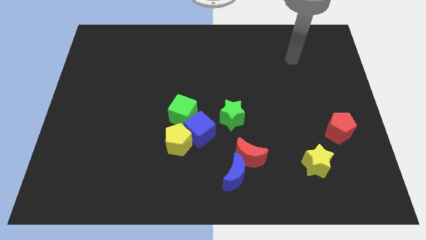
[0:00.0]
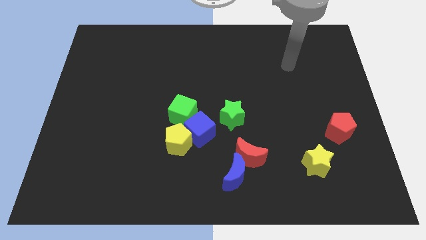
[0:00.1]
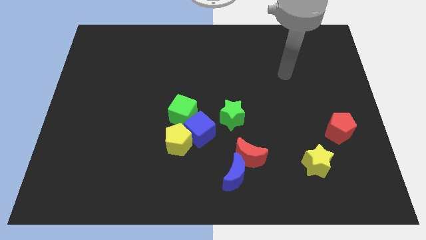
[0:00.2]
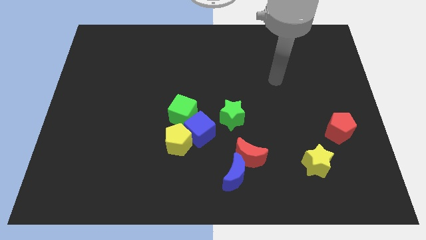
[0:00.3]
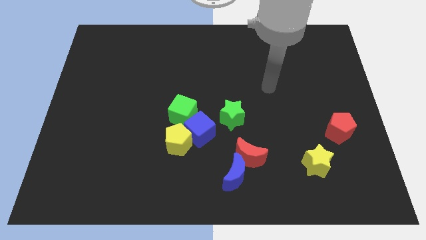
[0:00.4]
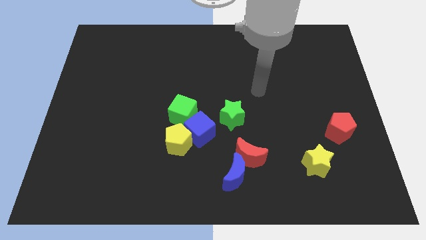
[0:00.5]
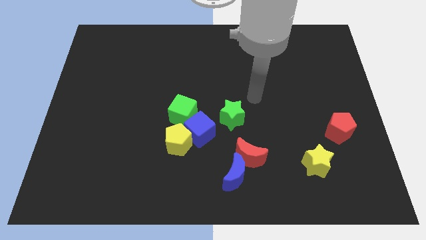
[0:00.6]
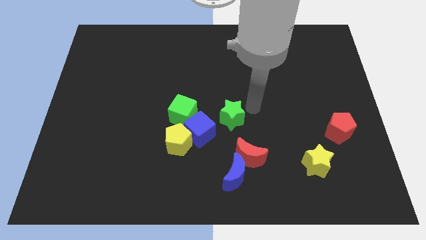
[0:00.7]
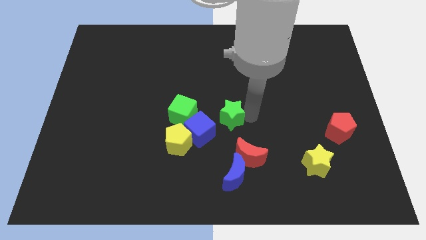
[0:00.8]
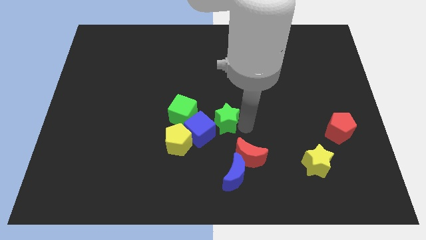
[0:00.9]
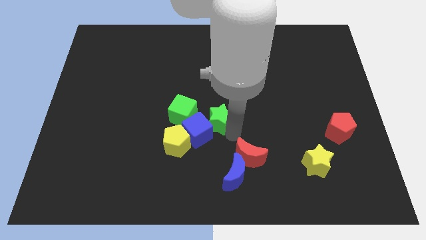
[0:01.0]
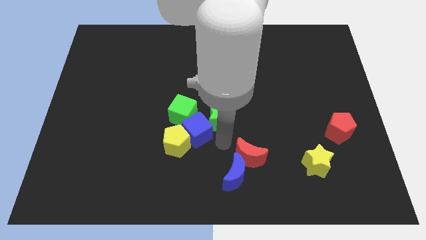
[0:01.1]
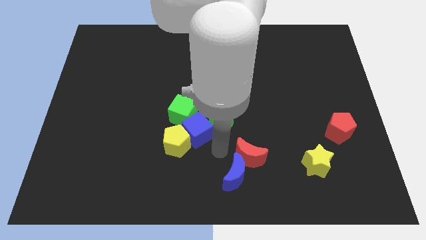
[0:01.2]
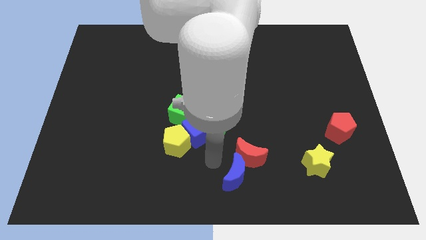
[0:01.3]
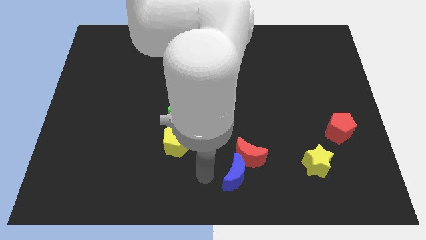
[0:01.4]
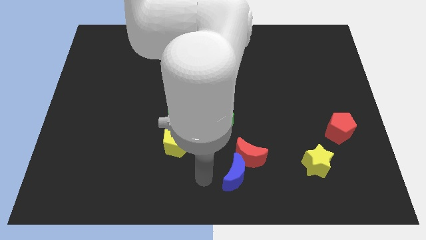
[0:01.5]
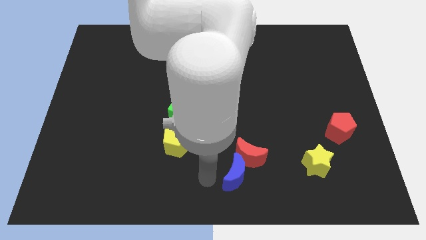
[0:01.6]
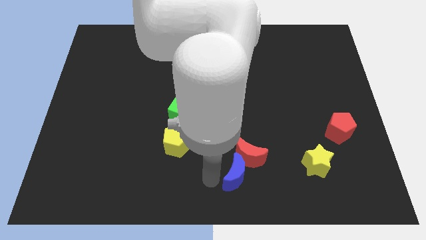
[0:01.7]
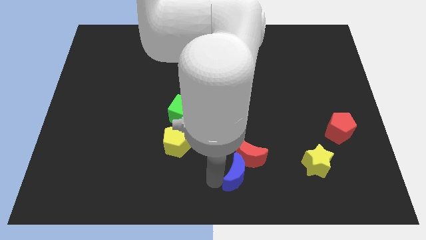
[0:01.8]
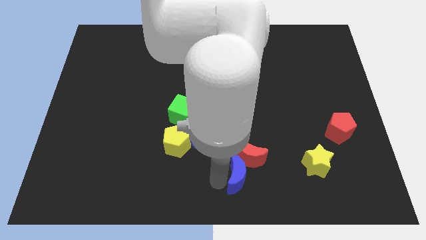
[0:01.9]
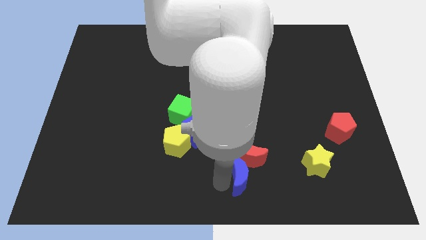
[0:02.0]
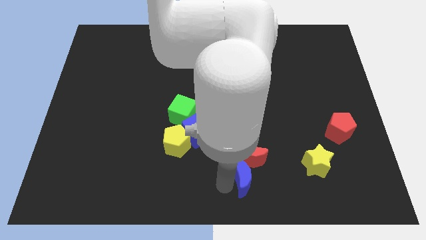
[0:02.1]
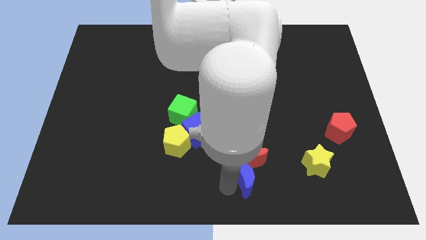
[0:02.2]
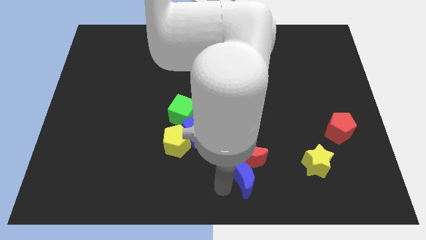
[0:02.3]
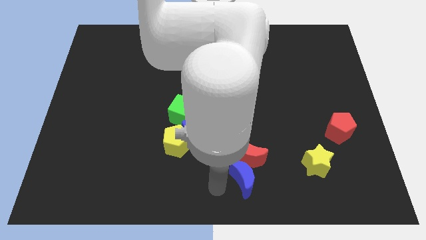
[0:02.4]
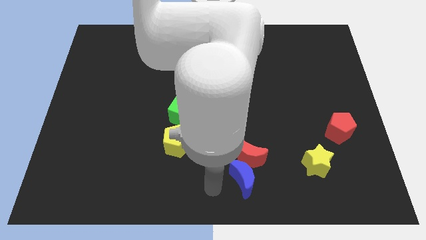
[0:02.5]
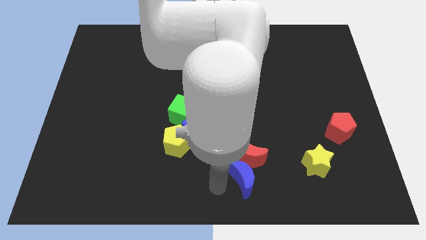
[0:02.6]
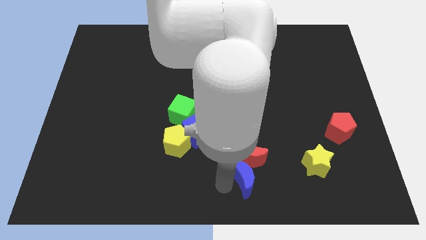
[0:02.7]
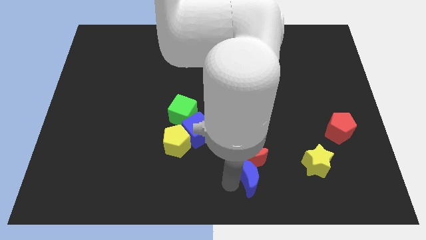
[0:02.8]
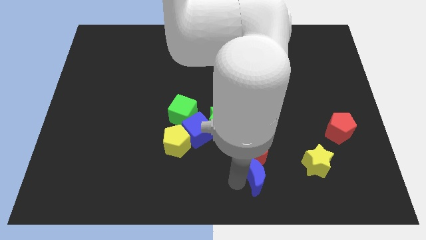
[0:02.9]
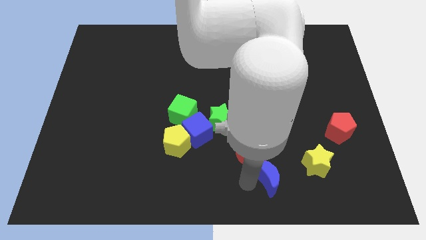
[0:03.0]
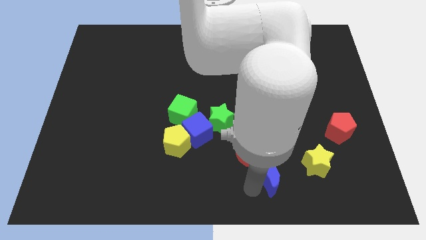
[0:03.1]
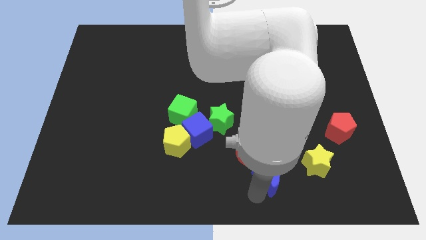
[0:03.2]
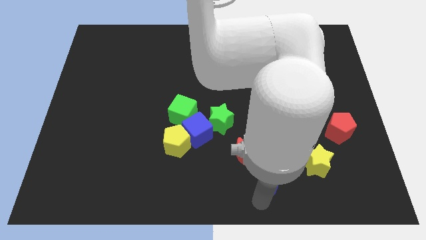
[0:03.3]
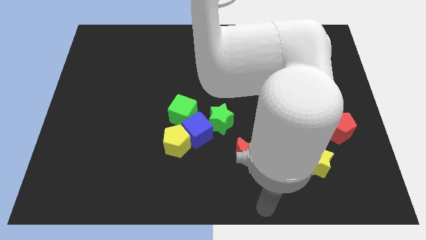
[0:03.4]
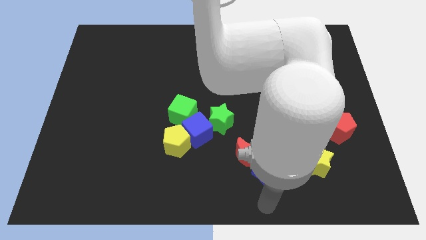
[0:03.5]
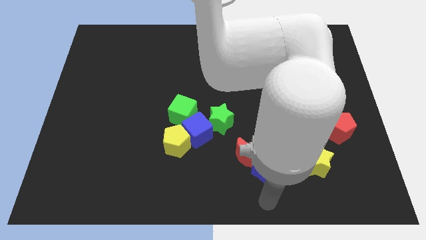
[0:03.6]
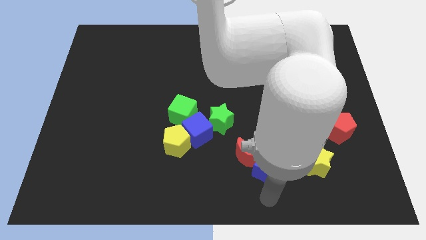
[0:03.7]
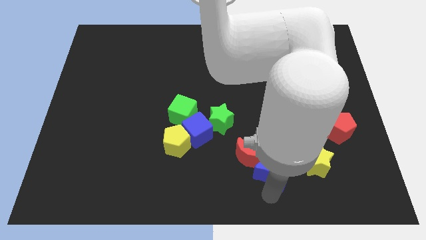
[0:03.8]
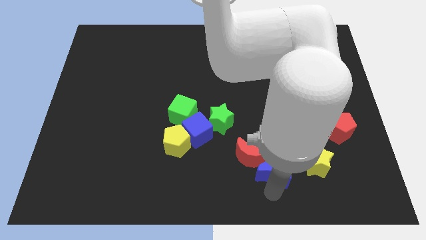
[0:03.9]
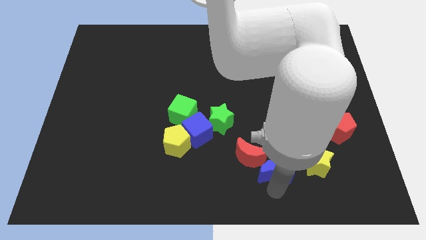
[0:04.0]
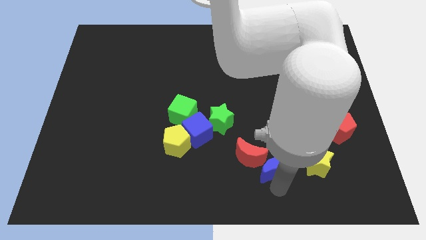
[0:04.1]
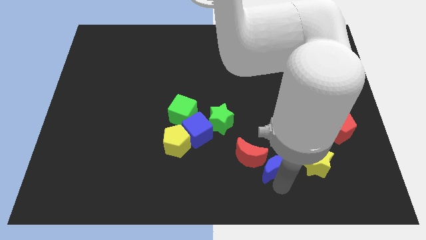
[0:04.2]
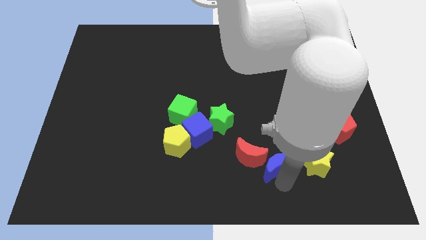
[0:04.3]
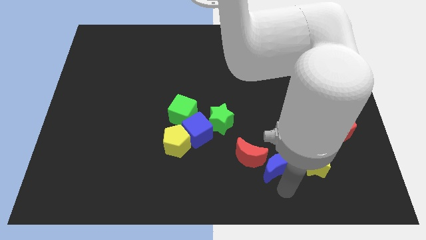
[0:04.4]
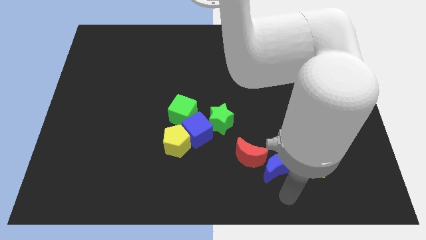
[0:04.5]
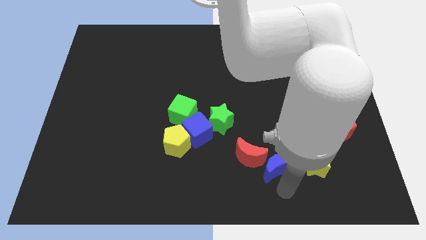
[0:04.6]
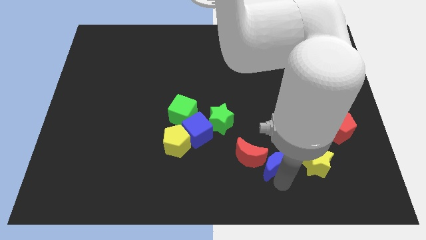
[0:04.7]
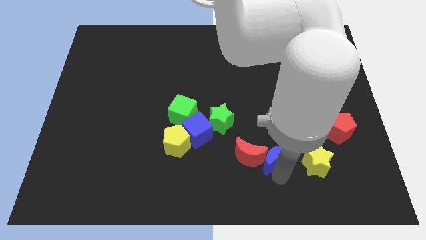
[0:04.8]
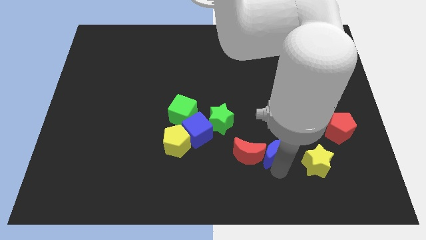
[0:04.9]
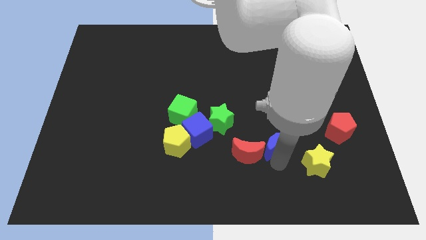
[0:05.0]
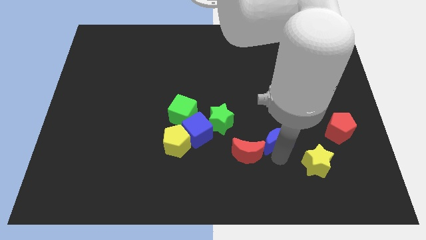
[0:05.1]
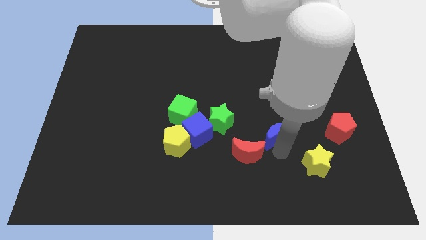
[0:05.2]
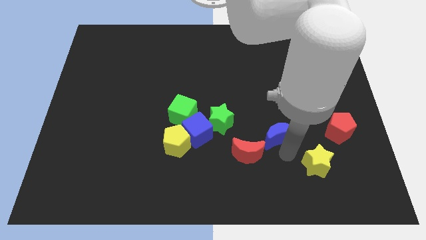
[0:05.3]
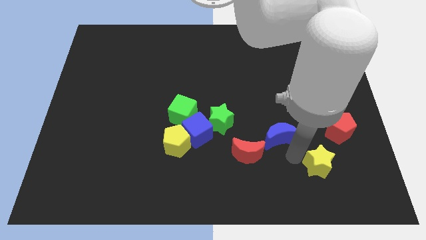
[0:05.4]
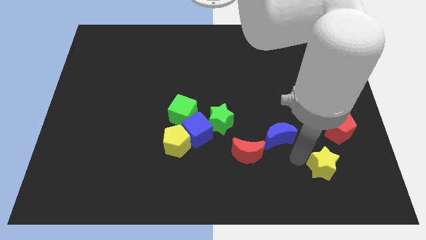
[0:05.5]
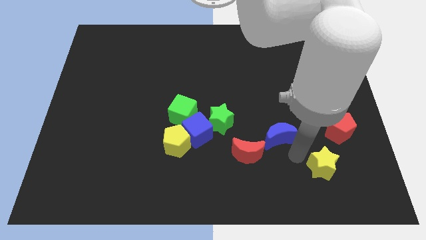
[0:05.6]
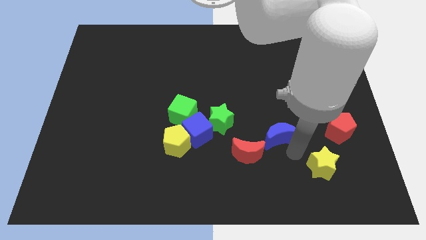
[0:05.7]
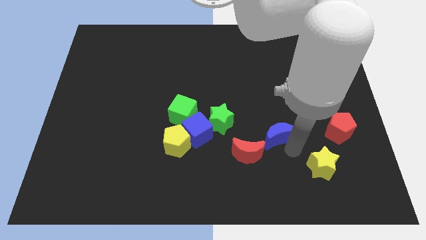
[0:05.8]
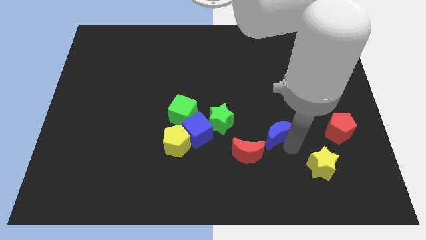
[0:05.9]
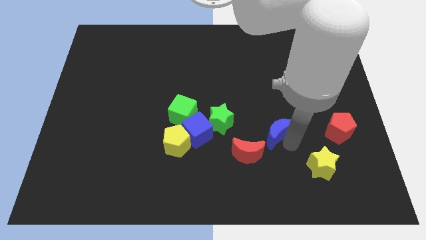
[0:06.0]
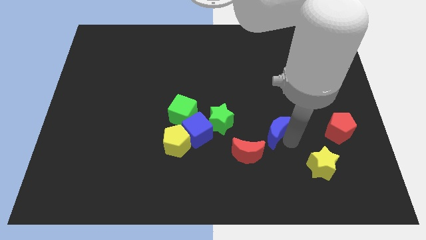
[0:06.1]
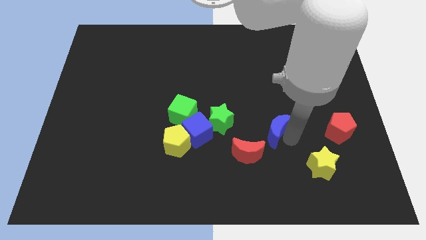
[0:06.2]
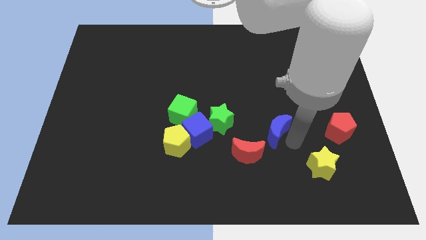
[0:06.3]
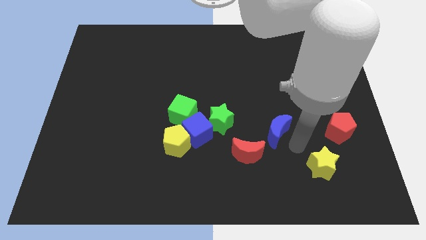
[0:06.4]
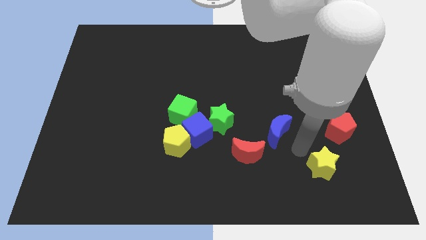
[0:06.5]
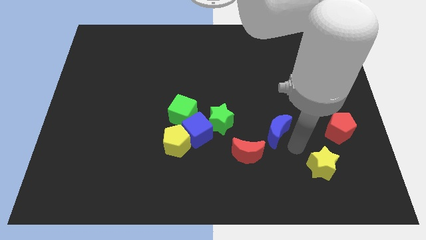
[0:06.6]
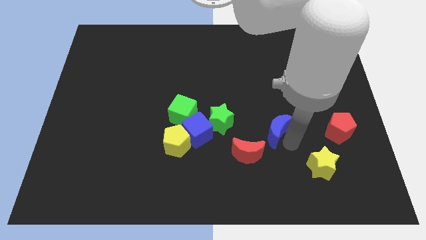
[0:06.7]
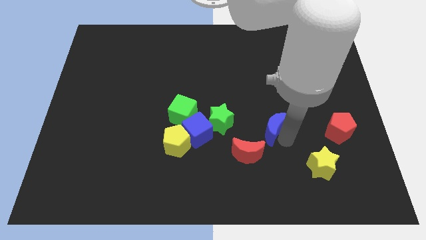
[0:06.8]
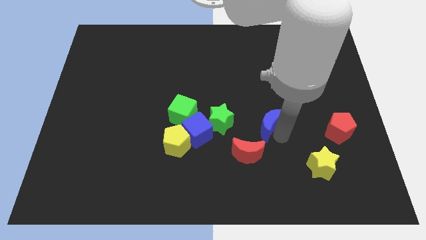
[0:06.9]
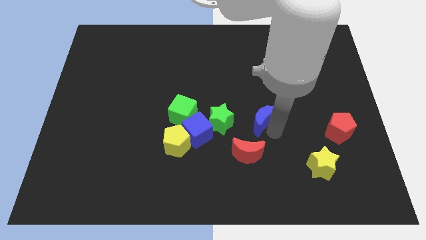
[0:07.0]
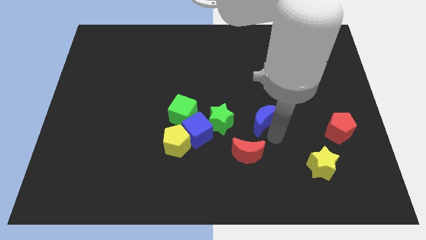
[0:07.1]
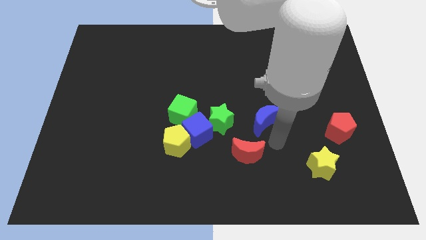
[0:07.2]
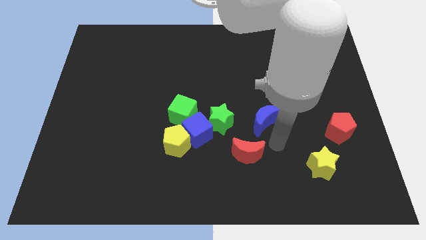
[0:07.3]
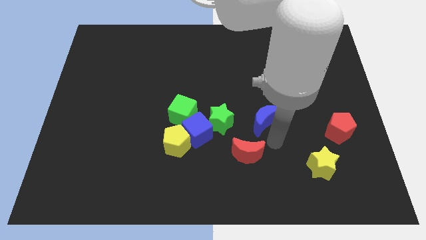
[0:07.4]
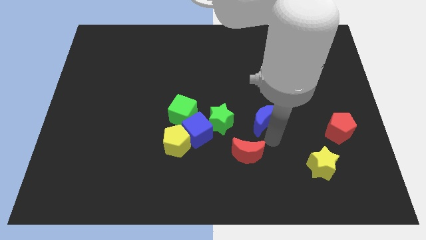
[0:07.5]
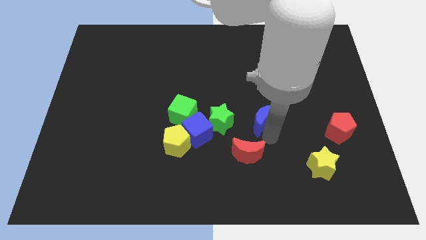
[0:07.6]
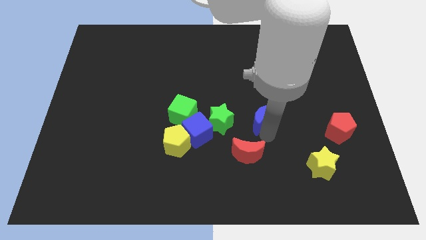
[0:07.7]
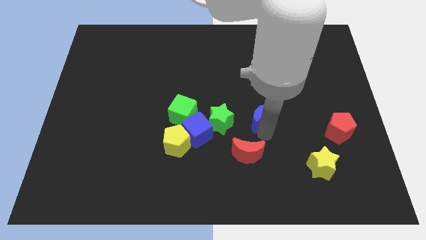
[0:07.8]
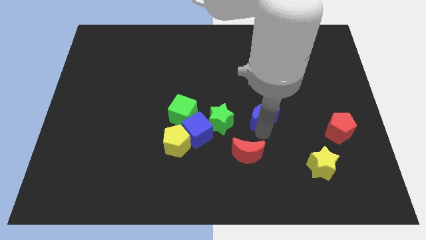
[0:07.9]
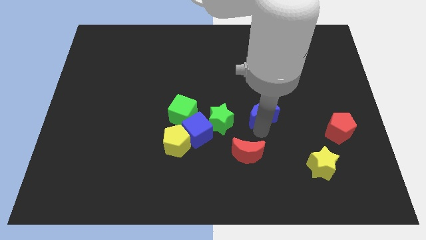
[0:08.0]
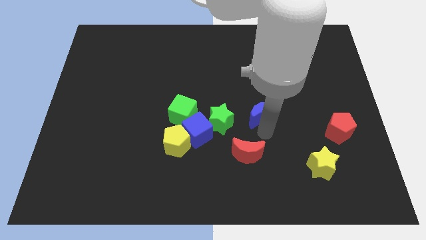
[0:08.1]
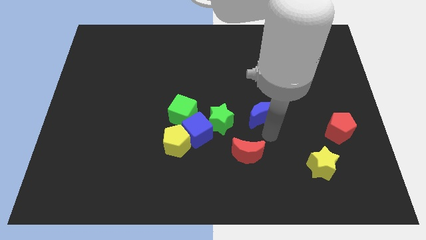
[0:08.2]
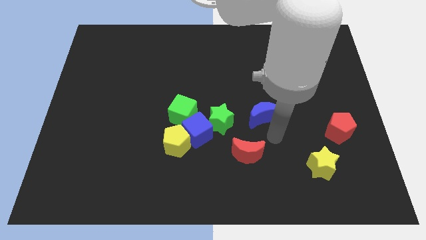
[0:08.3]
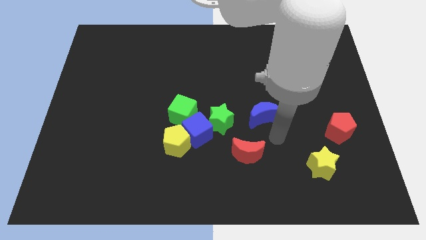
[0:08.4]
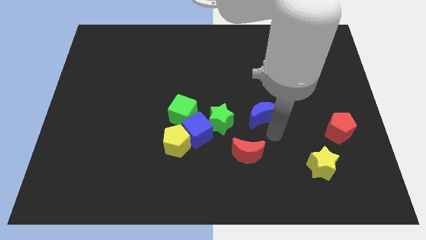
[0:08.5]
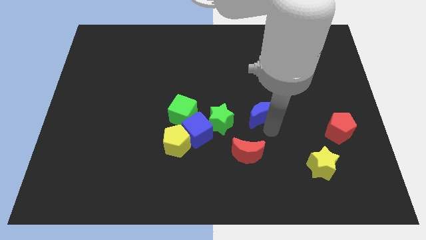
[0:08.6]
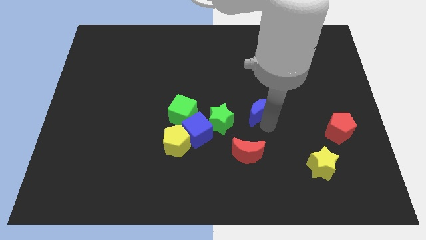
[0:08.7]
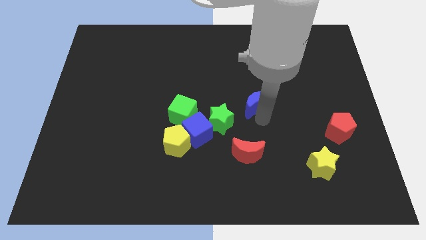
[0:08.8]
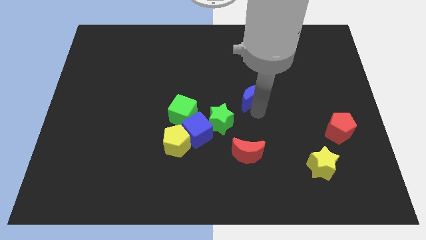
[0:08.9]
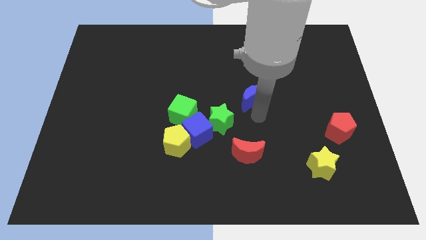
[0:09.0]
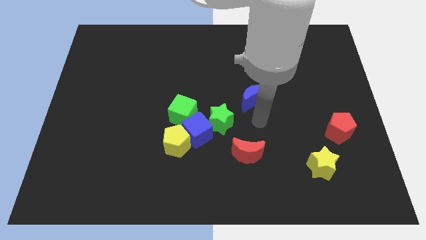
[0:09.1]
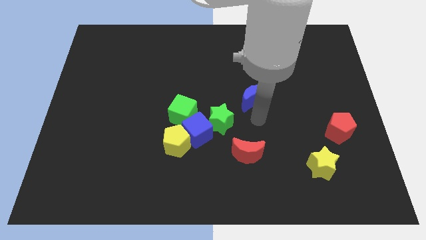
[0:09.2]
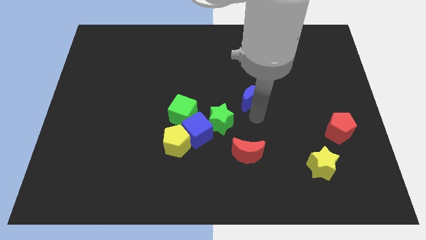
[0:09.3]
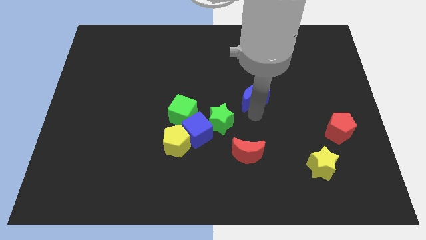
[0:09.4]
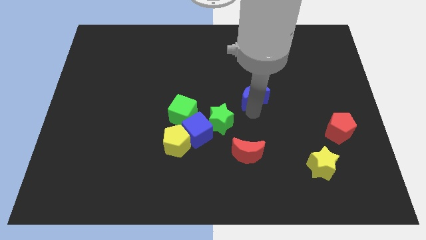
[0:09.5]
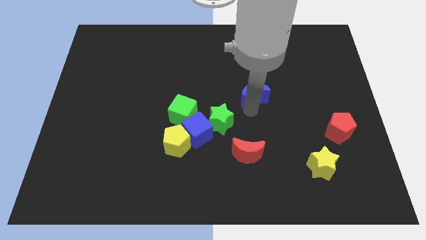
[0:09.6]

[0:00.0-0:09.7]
push the blue moon up
